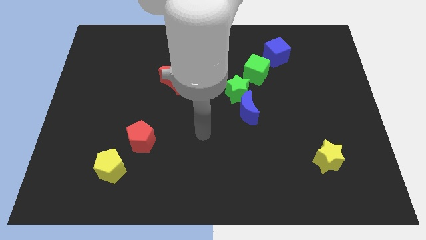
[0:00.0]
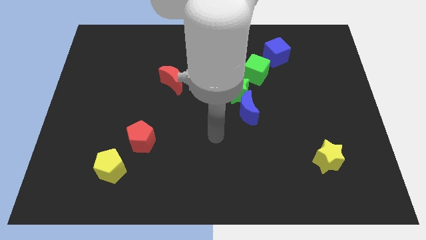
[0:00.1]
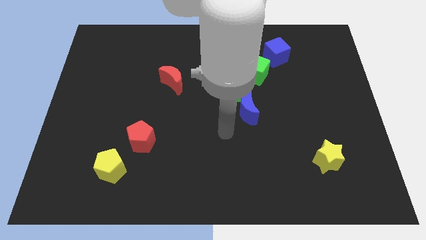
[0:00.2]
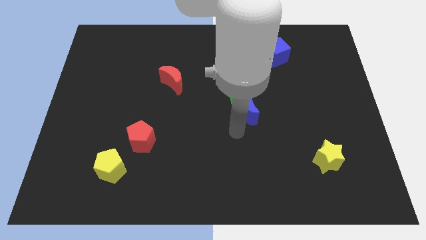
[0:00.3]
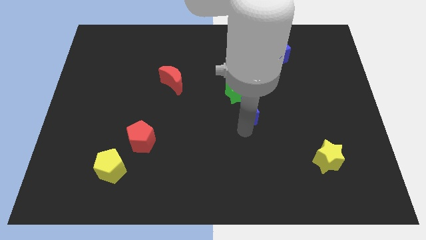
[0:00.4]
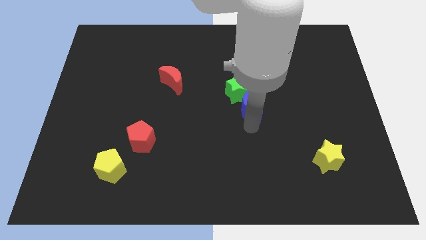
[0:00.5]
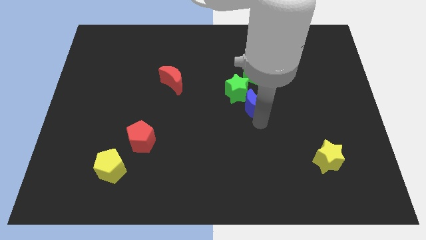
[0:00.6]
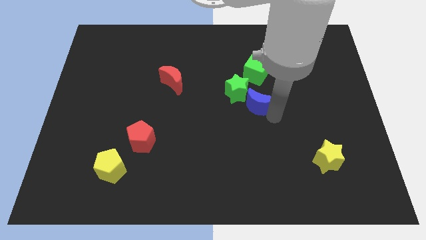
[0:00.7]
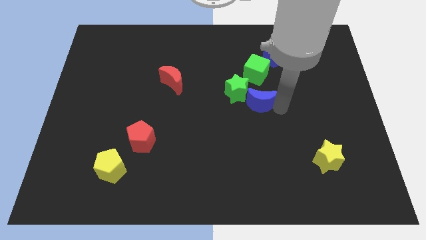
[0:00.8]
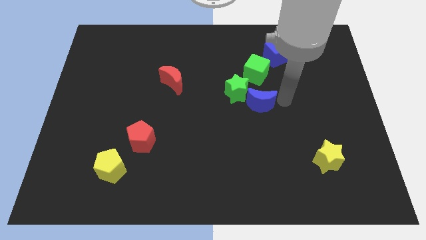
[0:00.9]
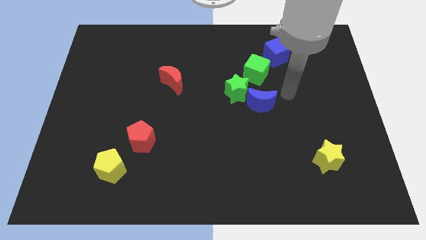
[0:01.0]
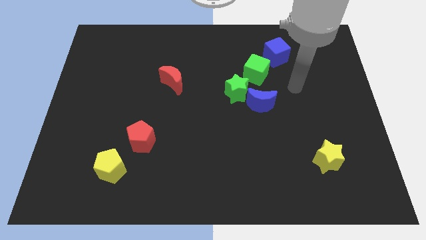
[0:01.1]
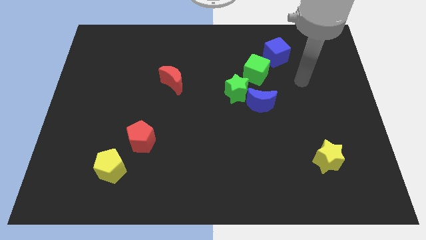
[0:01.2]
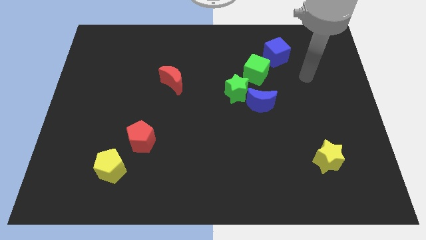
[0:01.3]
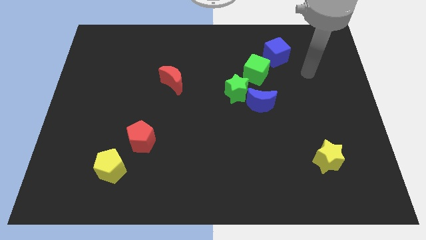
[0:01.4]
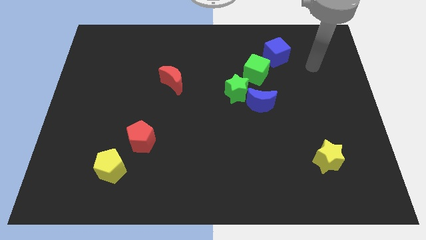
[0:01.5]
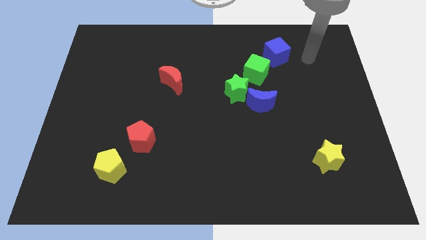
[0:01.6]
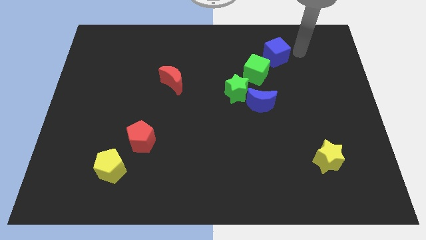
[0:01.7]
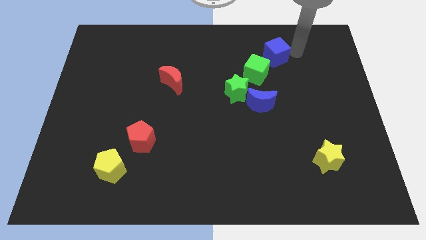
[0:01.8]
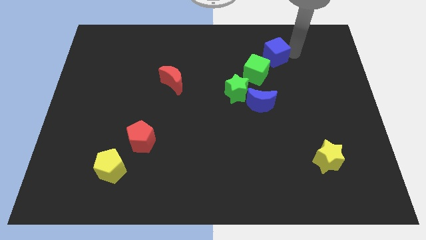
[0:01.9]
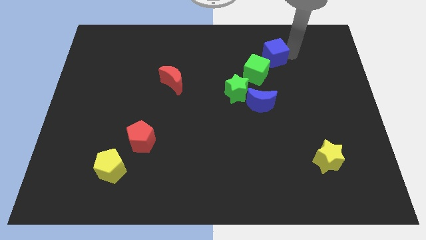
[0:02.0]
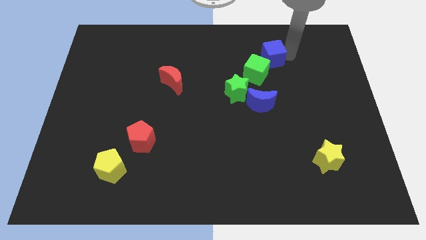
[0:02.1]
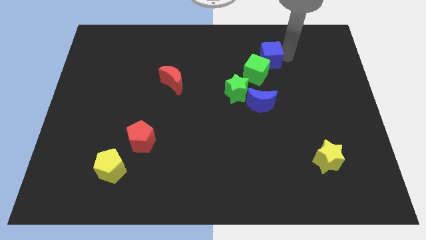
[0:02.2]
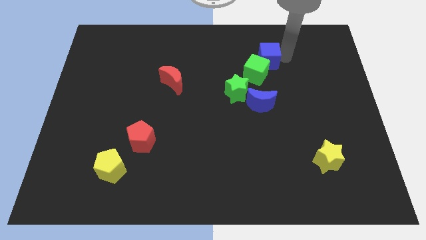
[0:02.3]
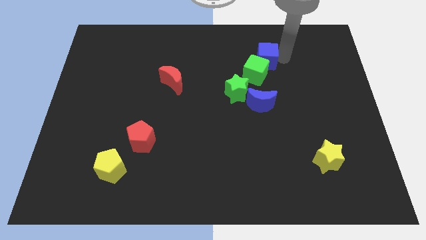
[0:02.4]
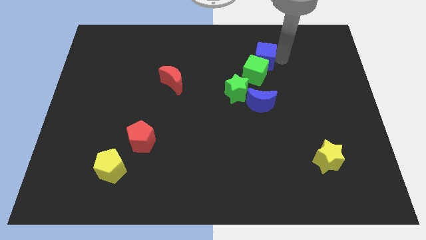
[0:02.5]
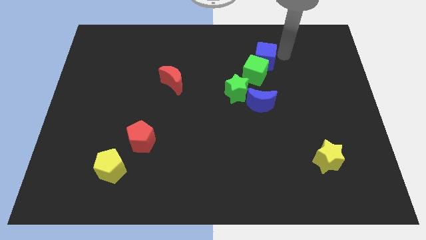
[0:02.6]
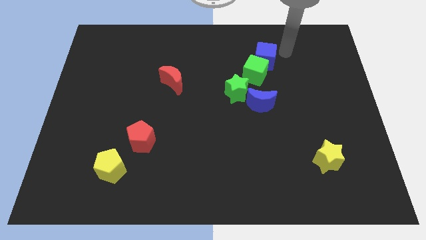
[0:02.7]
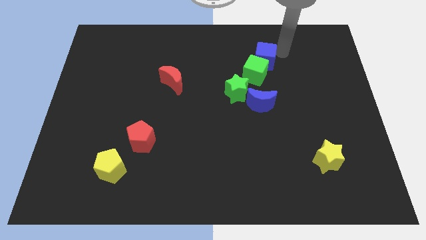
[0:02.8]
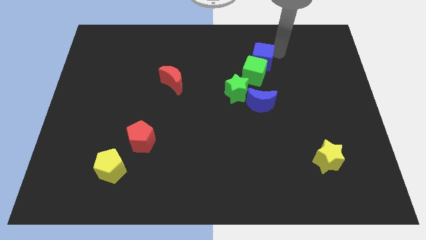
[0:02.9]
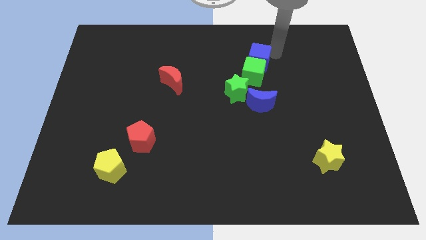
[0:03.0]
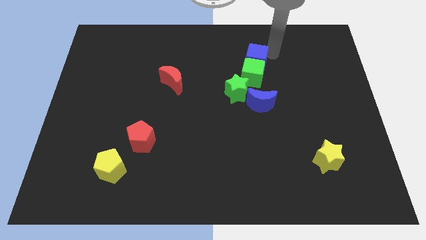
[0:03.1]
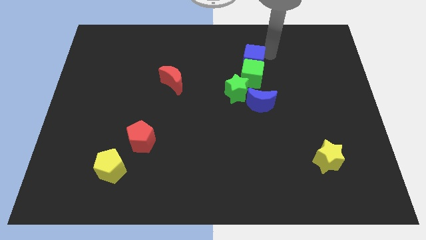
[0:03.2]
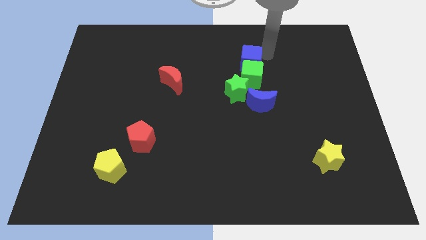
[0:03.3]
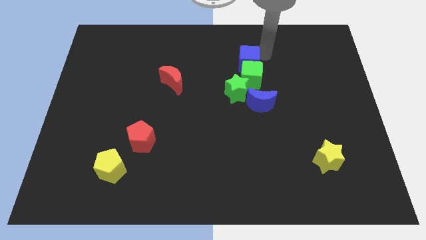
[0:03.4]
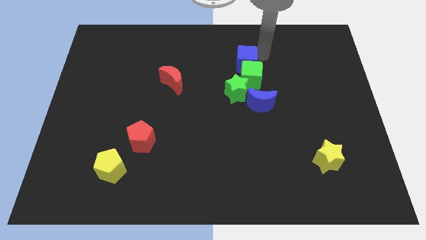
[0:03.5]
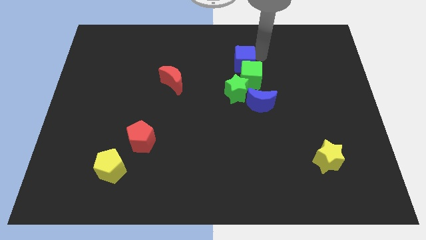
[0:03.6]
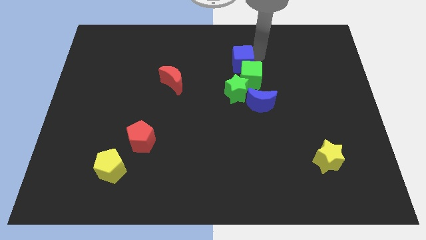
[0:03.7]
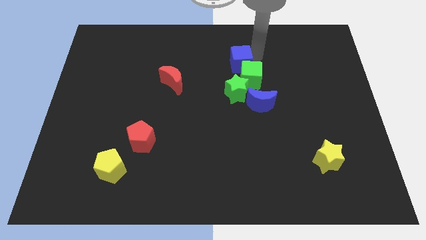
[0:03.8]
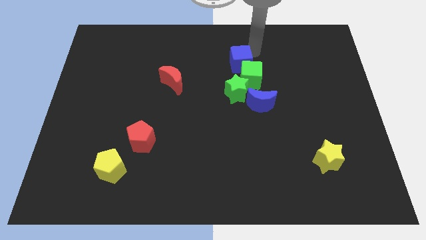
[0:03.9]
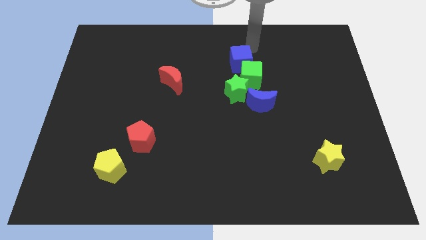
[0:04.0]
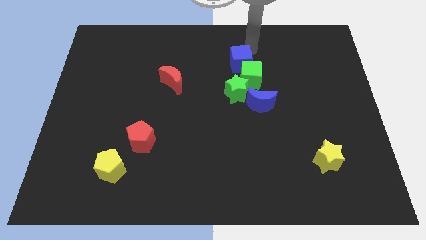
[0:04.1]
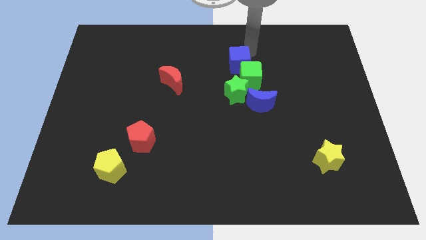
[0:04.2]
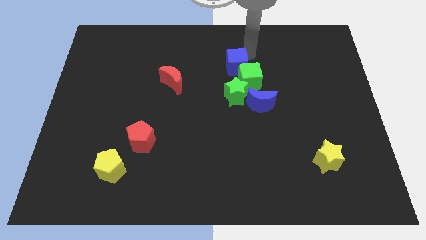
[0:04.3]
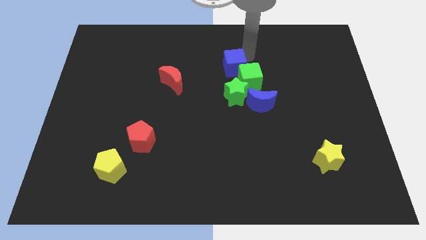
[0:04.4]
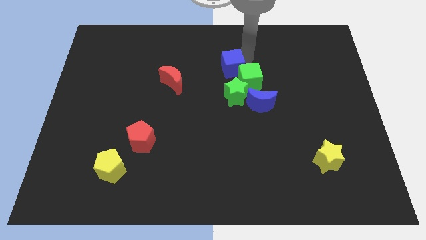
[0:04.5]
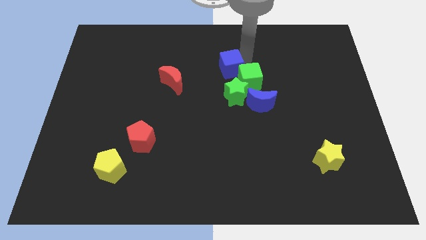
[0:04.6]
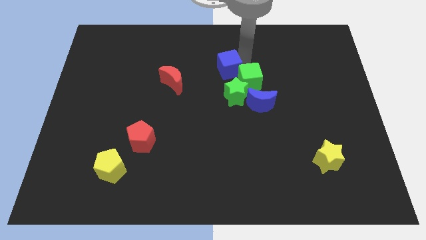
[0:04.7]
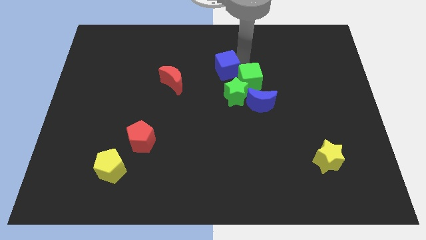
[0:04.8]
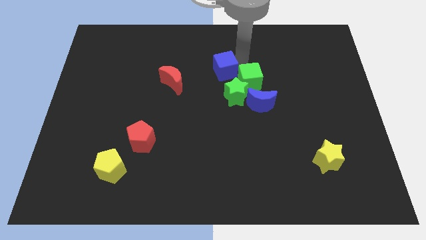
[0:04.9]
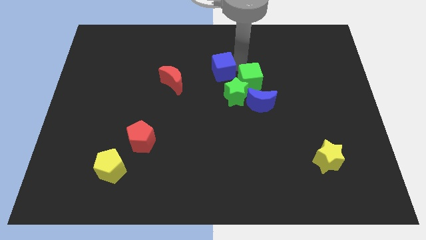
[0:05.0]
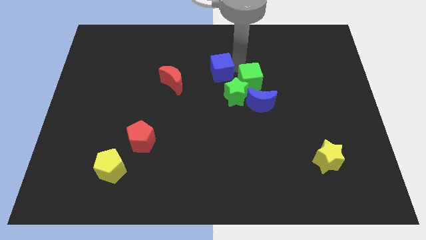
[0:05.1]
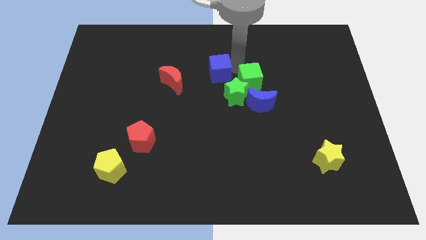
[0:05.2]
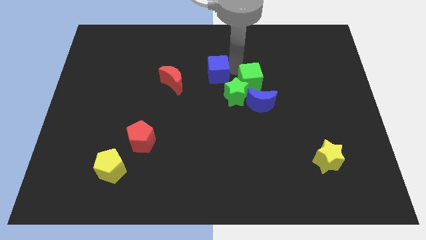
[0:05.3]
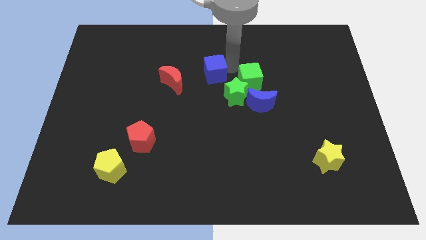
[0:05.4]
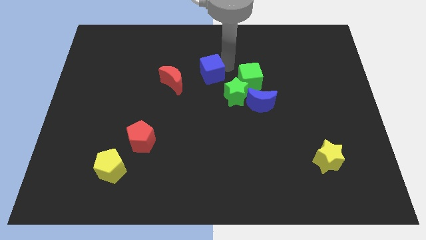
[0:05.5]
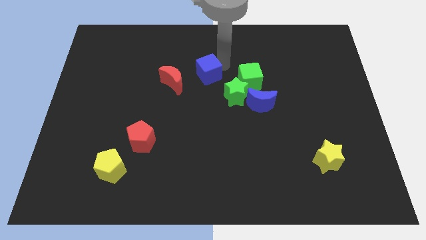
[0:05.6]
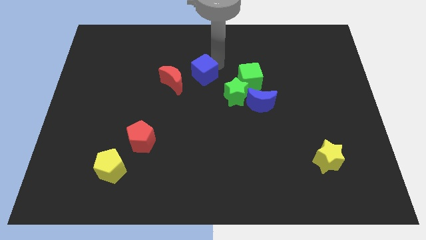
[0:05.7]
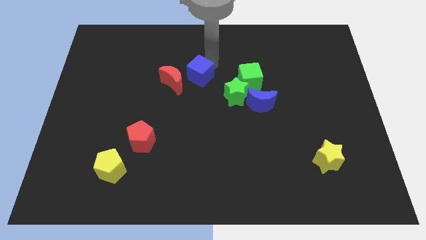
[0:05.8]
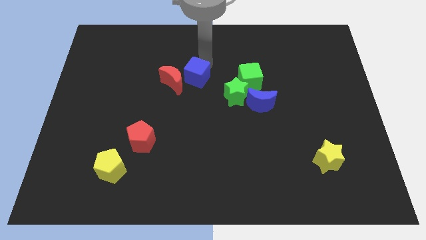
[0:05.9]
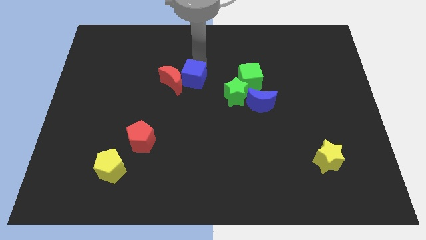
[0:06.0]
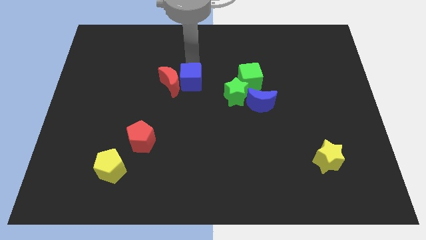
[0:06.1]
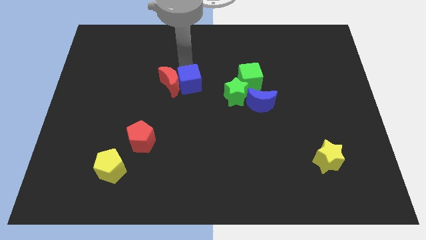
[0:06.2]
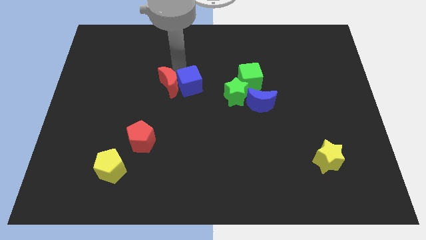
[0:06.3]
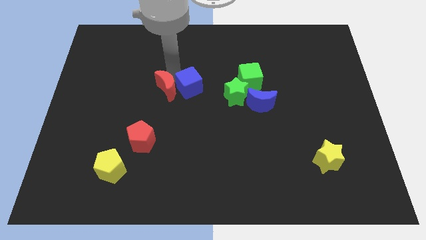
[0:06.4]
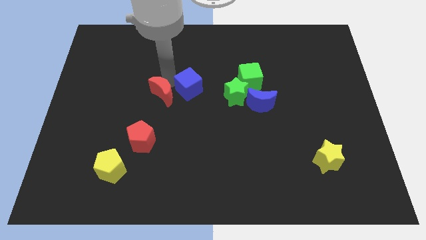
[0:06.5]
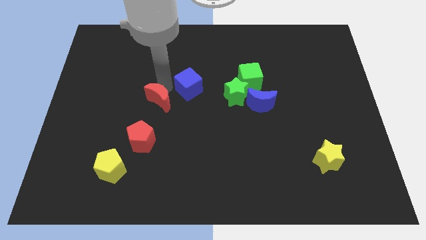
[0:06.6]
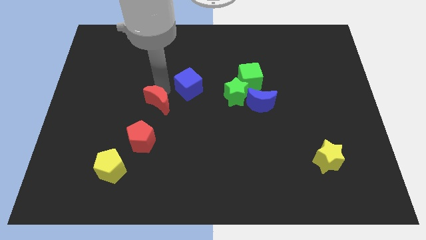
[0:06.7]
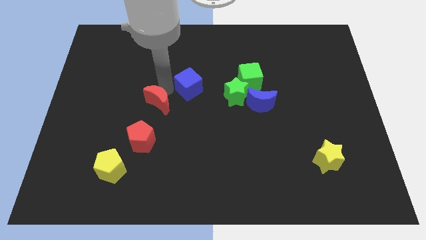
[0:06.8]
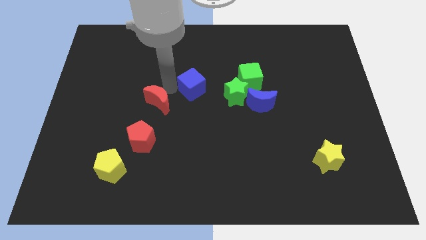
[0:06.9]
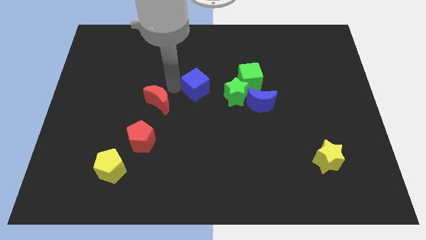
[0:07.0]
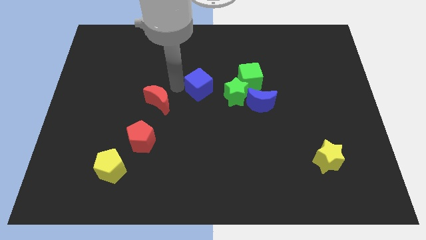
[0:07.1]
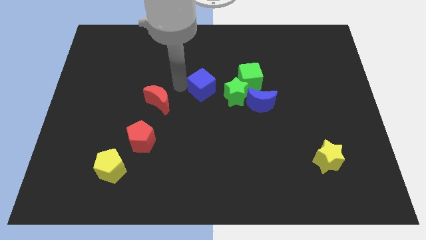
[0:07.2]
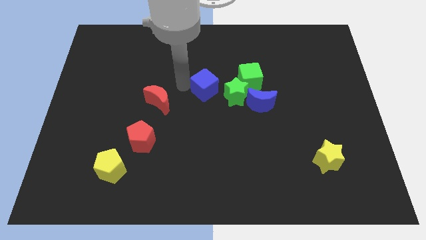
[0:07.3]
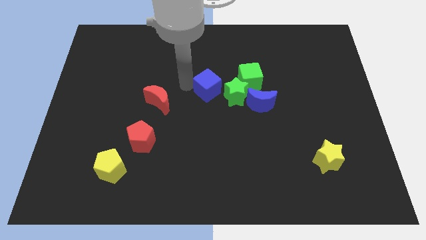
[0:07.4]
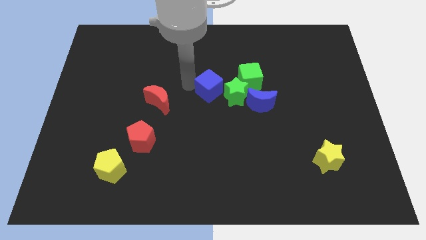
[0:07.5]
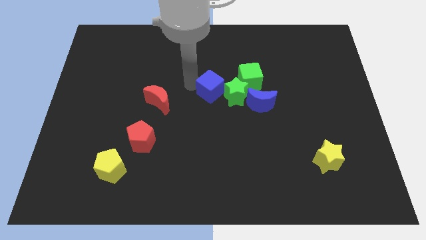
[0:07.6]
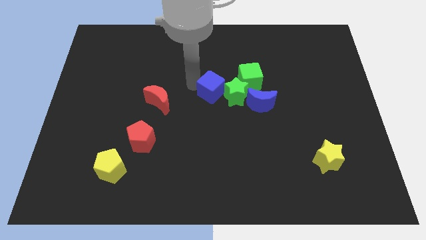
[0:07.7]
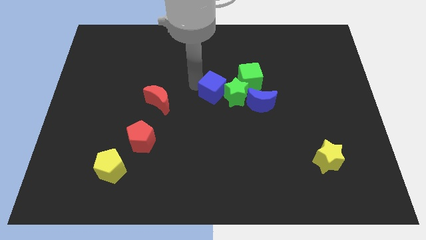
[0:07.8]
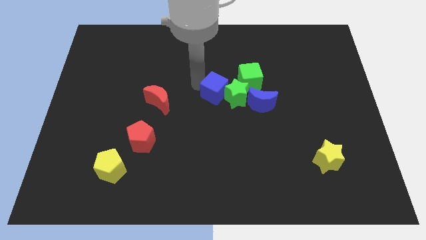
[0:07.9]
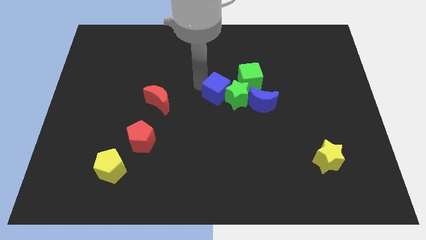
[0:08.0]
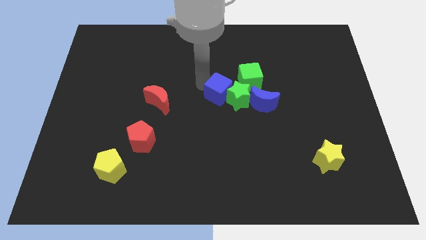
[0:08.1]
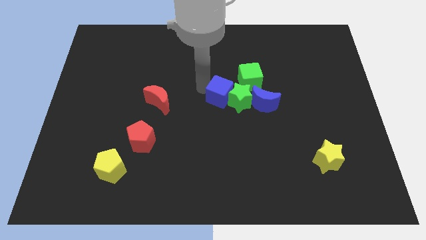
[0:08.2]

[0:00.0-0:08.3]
push the blue cube to the bottom left side of the green star
